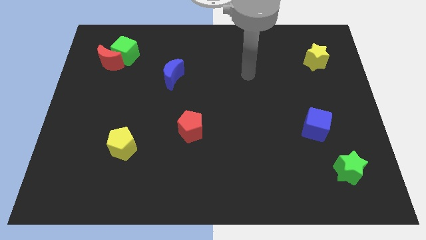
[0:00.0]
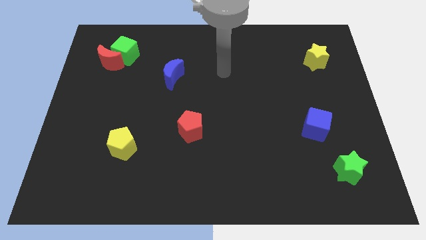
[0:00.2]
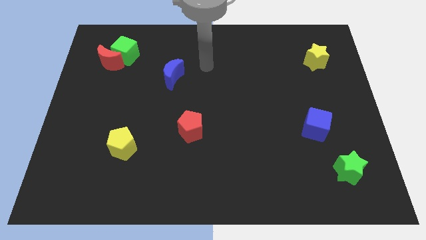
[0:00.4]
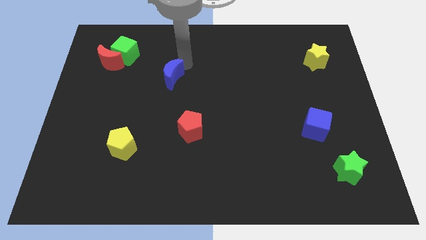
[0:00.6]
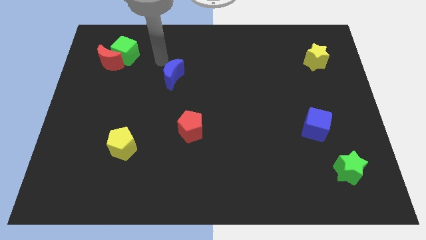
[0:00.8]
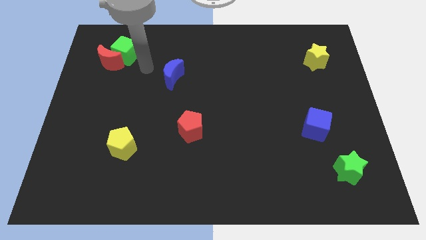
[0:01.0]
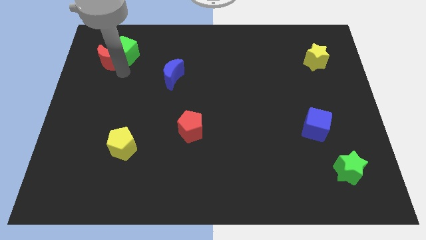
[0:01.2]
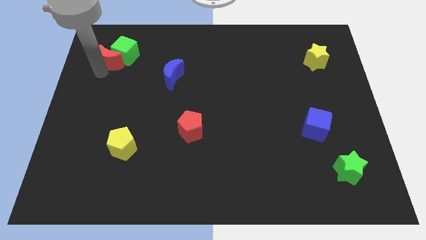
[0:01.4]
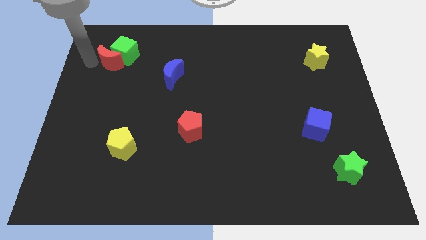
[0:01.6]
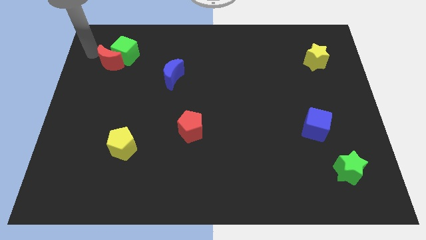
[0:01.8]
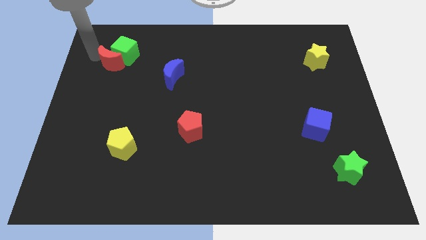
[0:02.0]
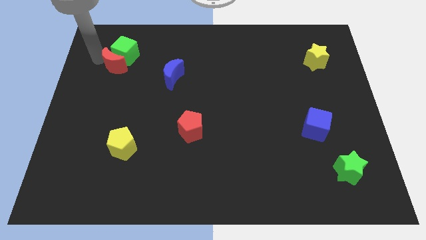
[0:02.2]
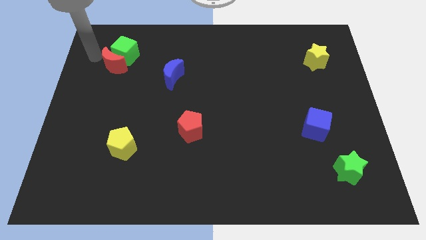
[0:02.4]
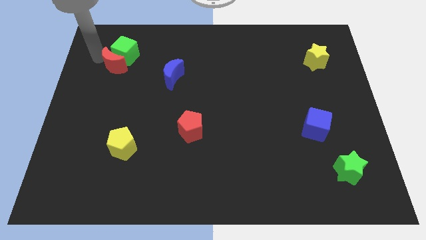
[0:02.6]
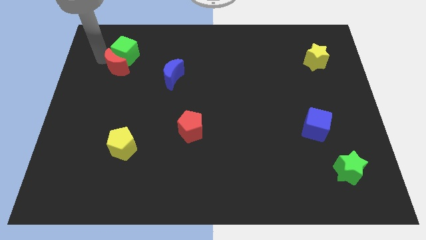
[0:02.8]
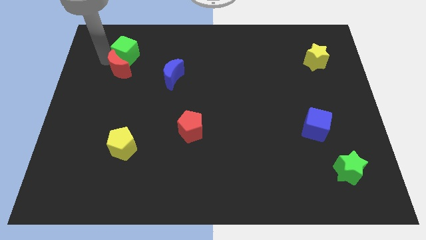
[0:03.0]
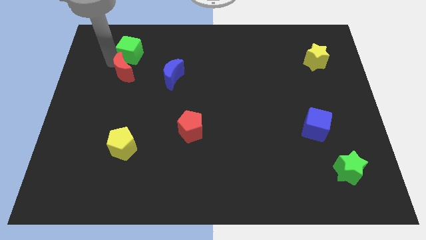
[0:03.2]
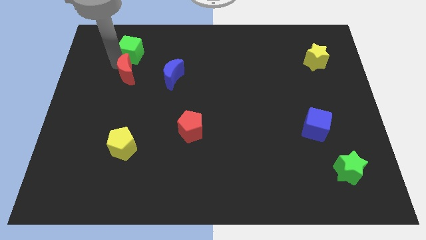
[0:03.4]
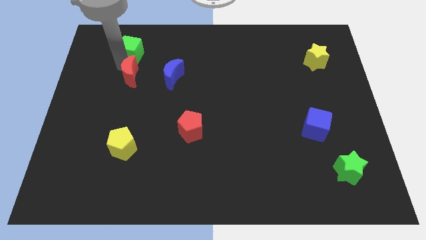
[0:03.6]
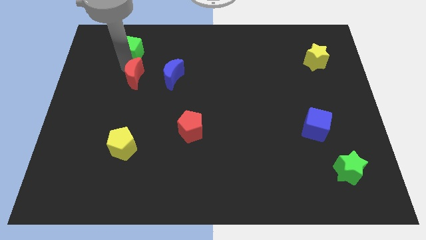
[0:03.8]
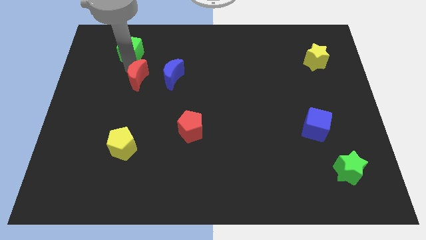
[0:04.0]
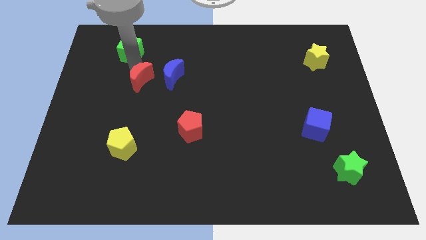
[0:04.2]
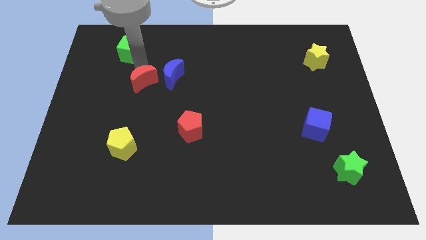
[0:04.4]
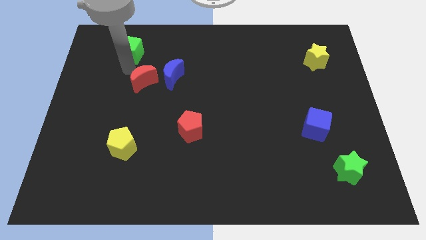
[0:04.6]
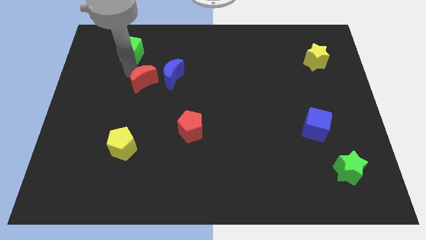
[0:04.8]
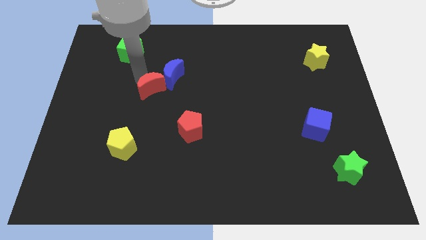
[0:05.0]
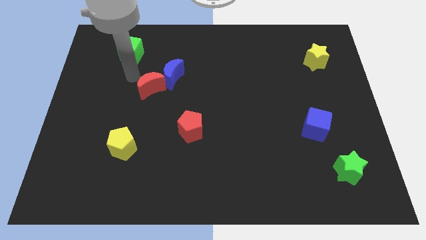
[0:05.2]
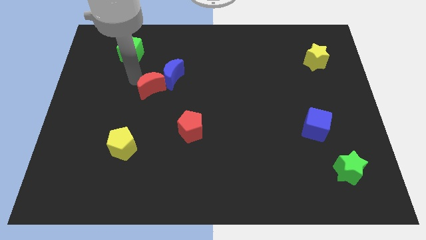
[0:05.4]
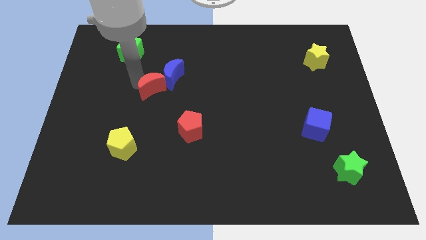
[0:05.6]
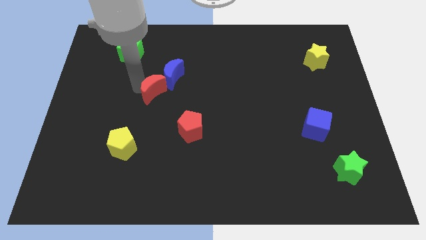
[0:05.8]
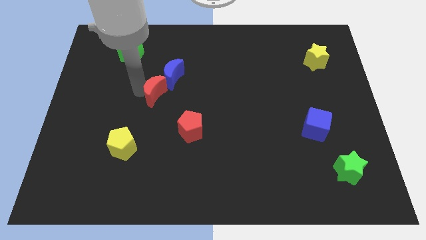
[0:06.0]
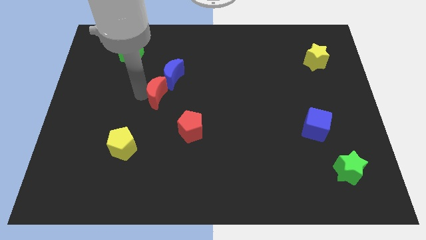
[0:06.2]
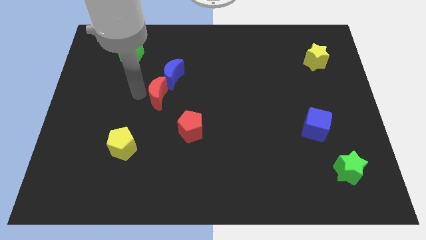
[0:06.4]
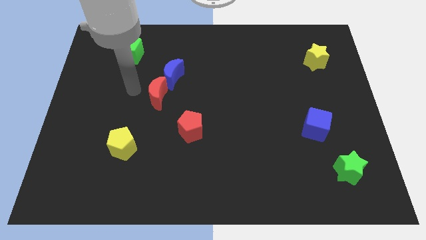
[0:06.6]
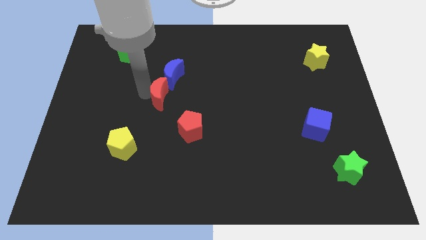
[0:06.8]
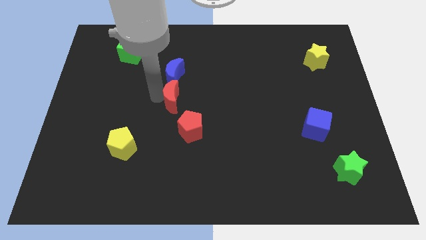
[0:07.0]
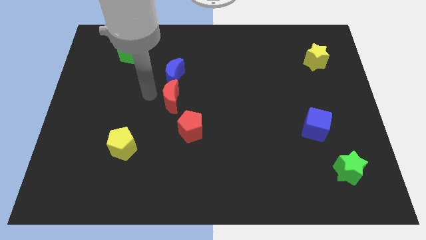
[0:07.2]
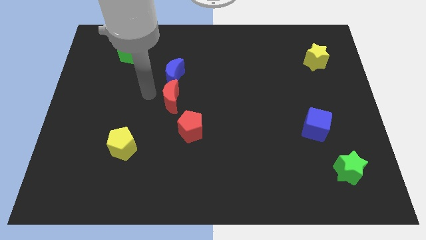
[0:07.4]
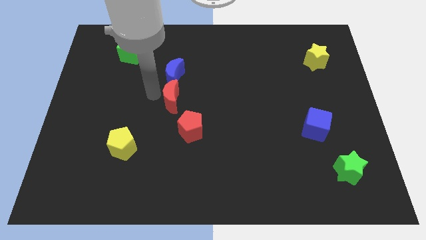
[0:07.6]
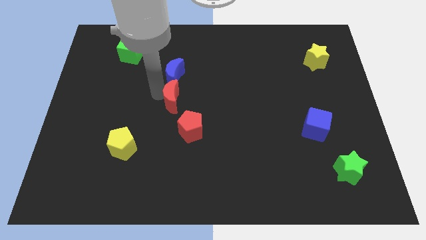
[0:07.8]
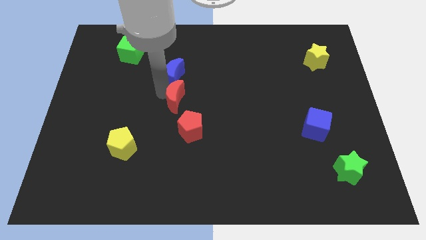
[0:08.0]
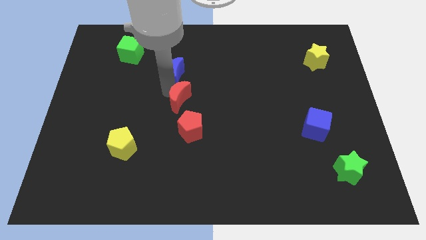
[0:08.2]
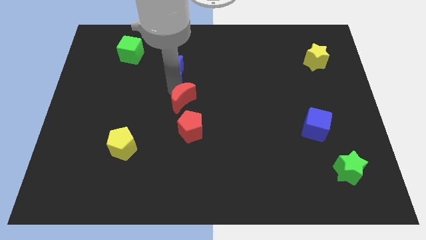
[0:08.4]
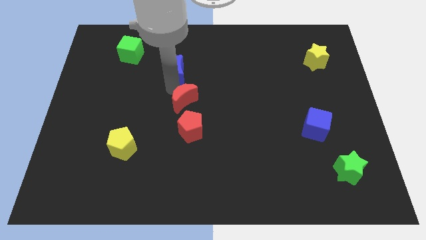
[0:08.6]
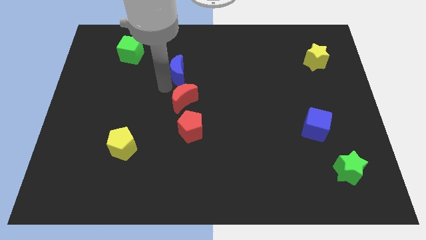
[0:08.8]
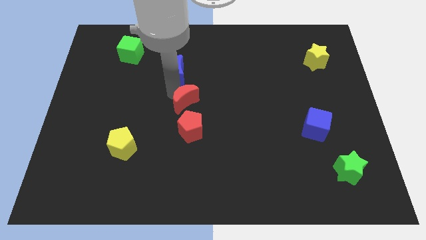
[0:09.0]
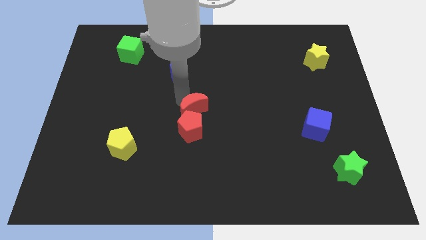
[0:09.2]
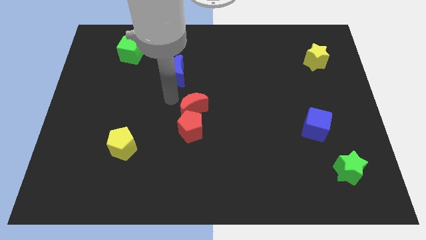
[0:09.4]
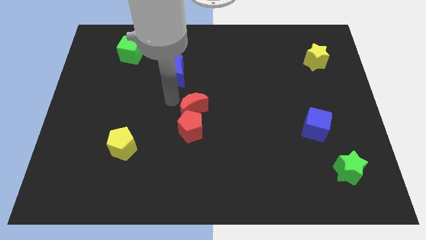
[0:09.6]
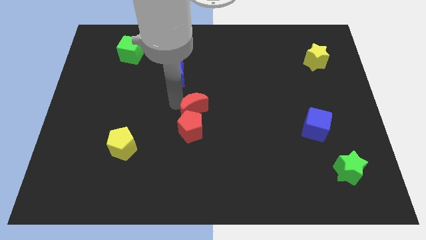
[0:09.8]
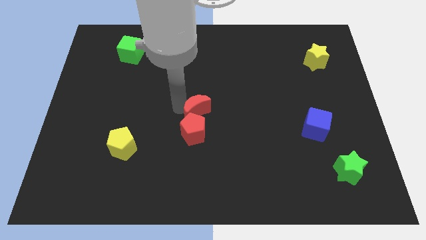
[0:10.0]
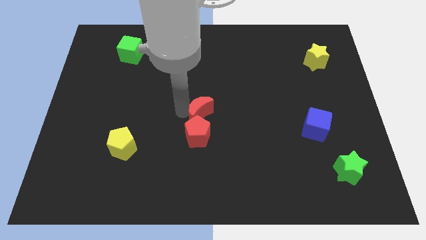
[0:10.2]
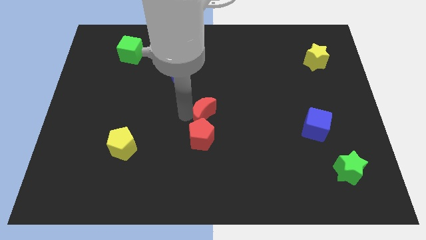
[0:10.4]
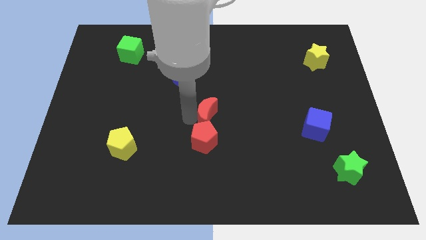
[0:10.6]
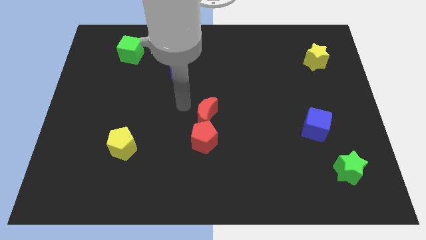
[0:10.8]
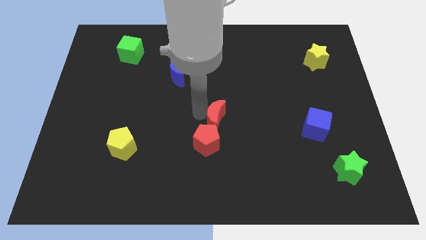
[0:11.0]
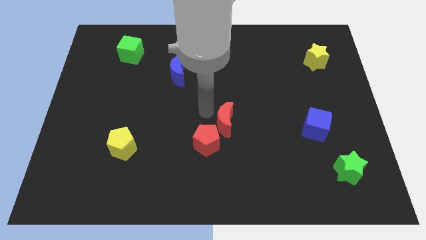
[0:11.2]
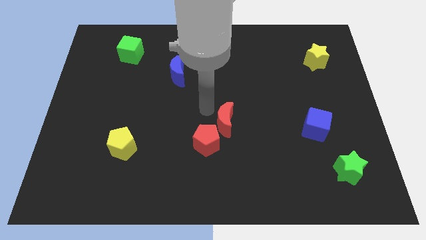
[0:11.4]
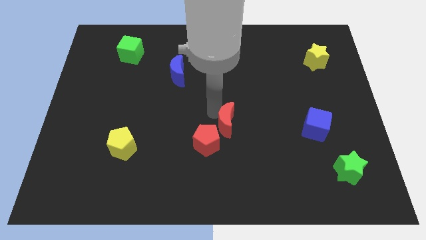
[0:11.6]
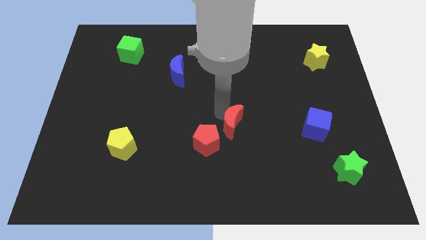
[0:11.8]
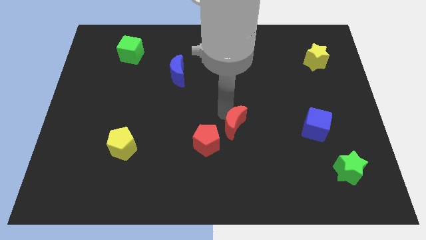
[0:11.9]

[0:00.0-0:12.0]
slide the red moon right of the red pentagon

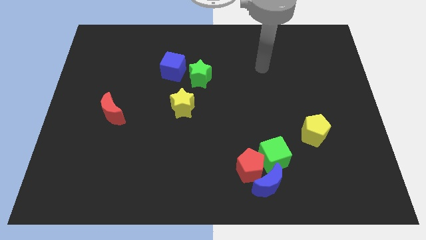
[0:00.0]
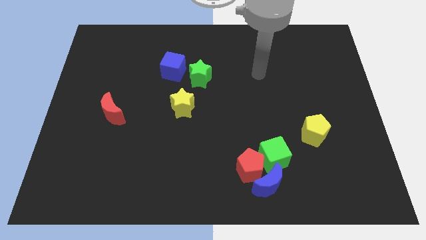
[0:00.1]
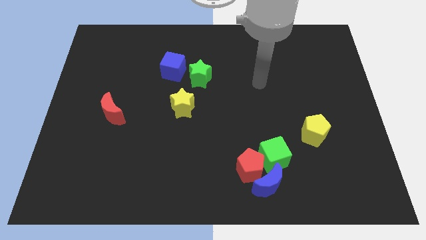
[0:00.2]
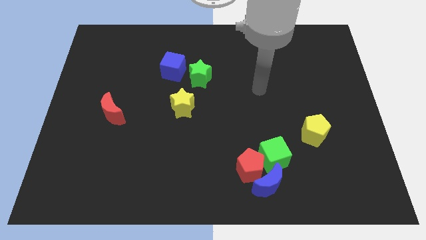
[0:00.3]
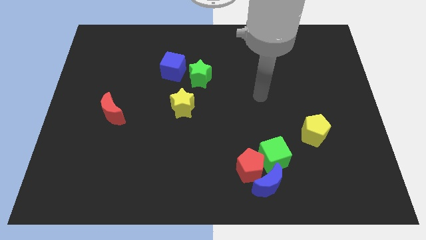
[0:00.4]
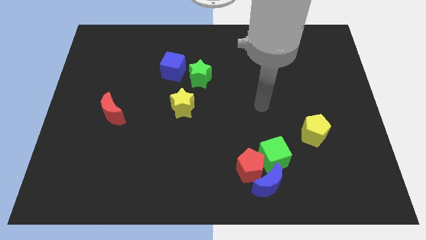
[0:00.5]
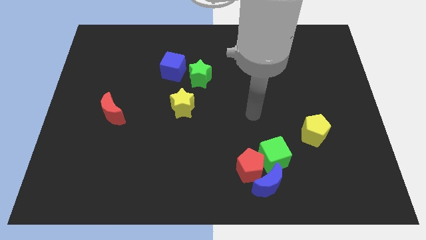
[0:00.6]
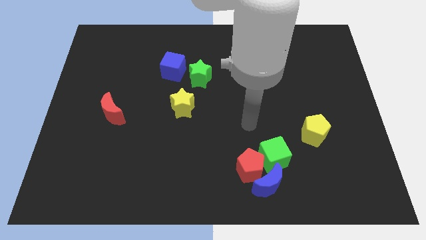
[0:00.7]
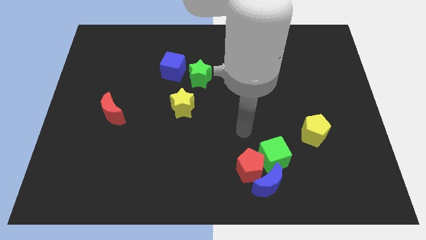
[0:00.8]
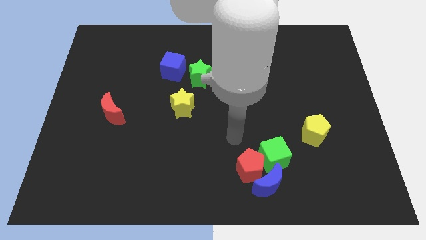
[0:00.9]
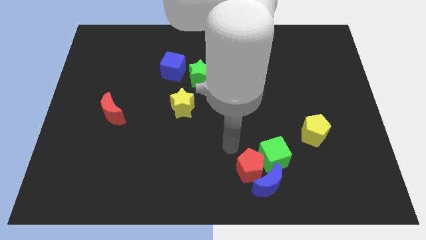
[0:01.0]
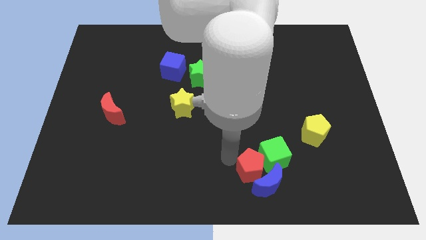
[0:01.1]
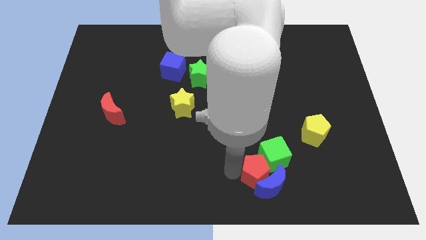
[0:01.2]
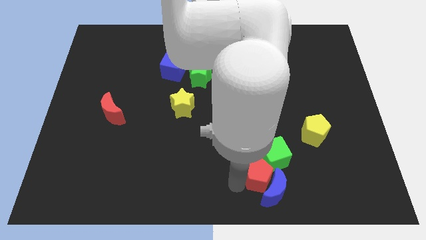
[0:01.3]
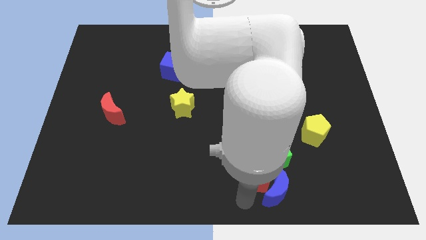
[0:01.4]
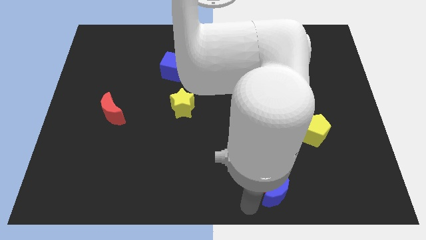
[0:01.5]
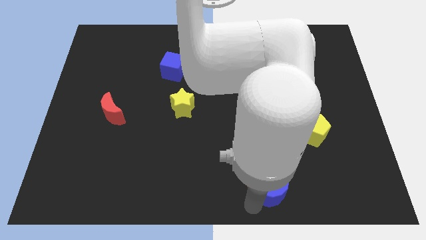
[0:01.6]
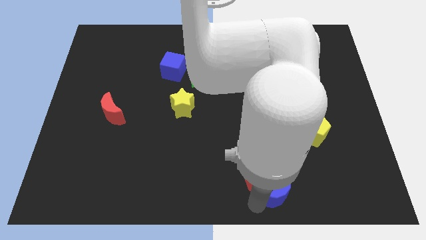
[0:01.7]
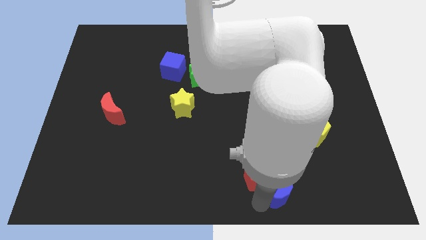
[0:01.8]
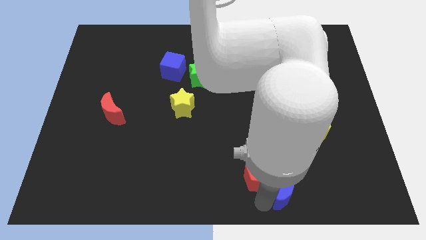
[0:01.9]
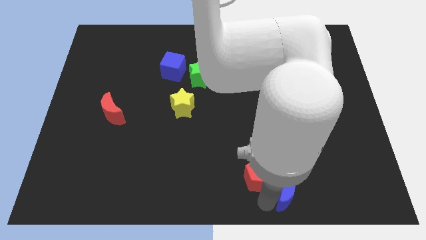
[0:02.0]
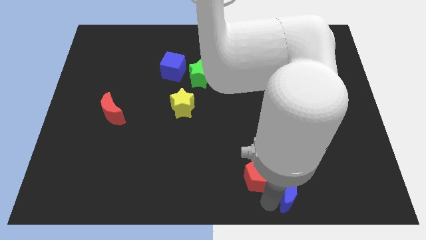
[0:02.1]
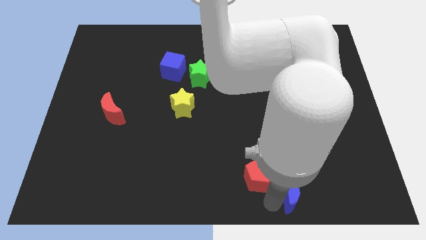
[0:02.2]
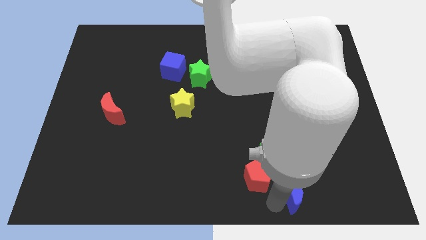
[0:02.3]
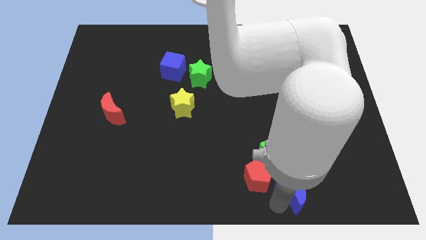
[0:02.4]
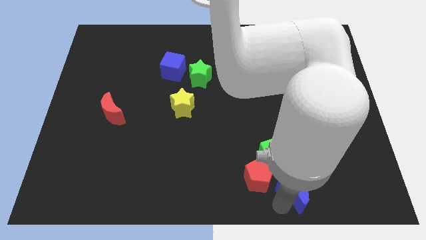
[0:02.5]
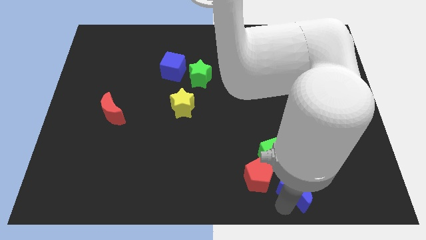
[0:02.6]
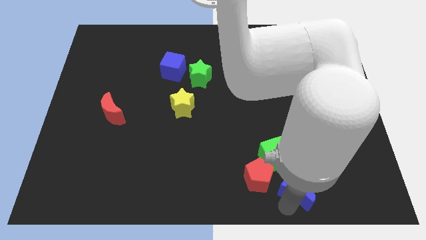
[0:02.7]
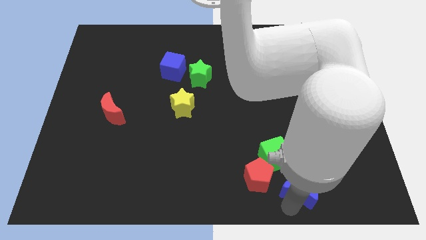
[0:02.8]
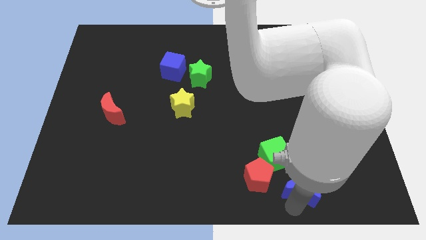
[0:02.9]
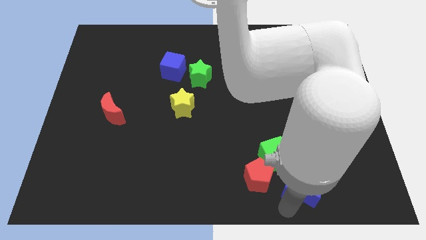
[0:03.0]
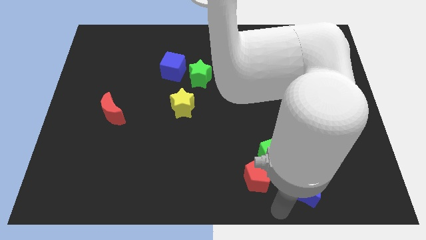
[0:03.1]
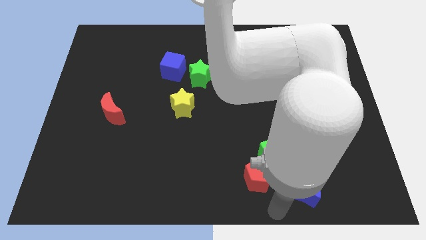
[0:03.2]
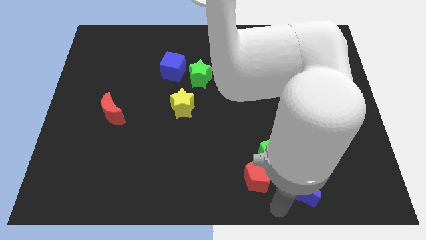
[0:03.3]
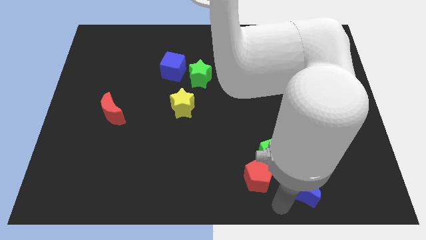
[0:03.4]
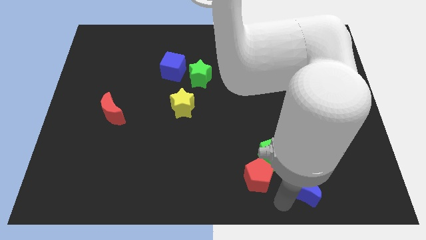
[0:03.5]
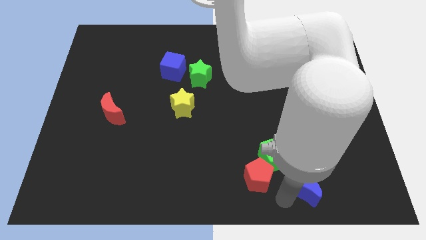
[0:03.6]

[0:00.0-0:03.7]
push the blue moon to the bottom of the yellow pentagon
